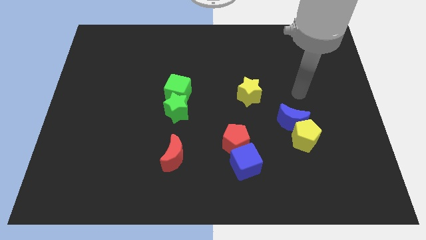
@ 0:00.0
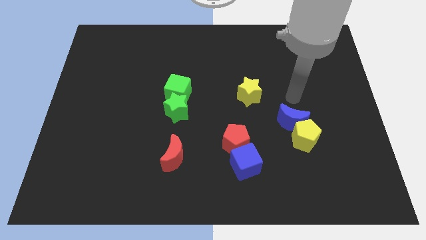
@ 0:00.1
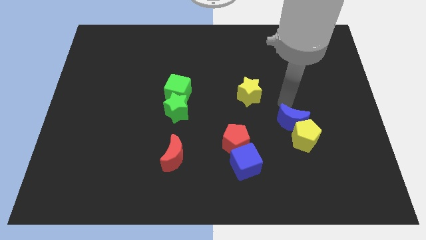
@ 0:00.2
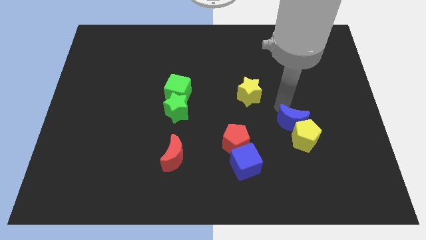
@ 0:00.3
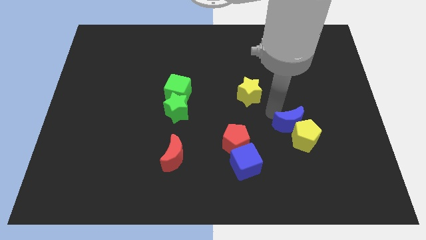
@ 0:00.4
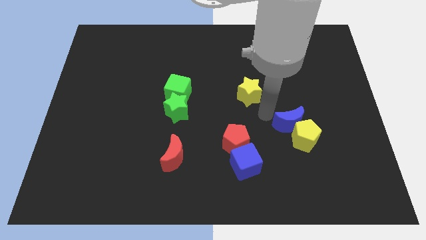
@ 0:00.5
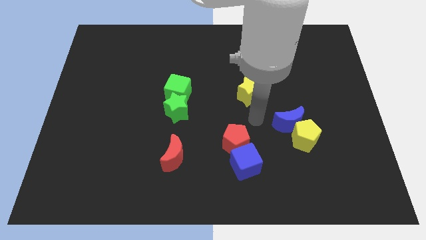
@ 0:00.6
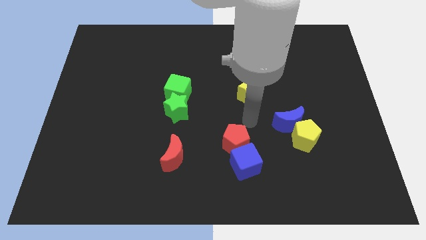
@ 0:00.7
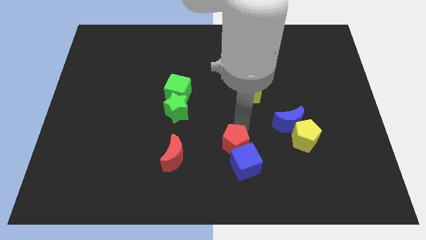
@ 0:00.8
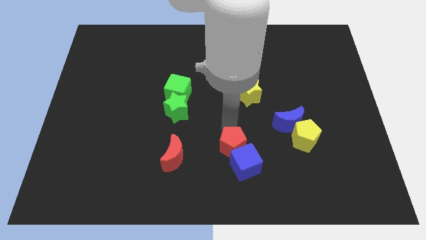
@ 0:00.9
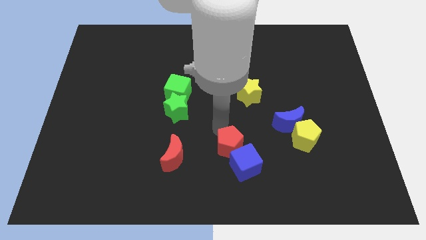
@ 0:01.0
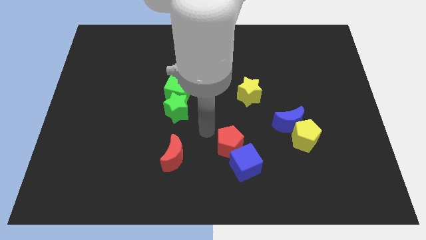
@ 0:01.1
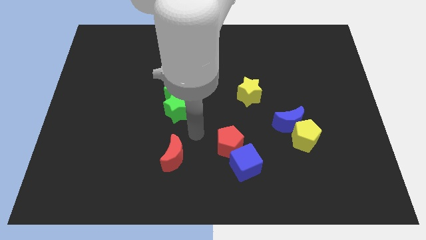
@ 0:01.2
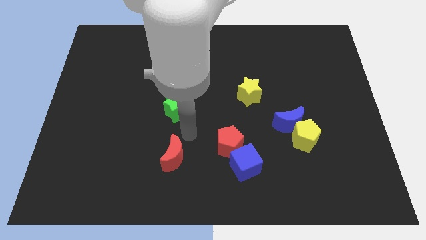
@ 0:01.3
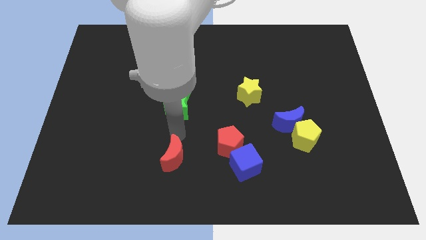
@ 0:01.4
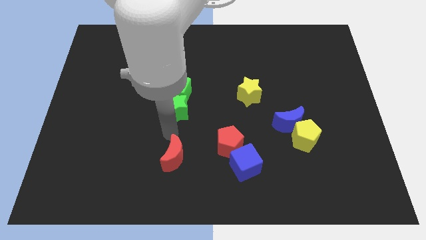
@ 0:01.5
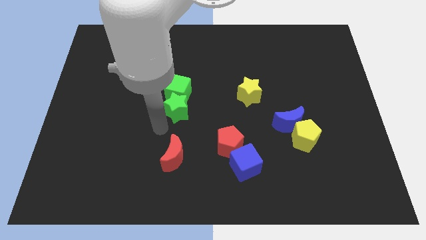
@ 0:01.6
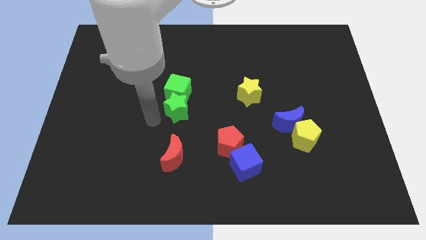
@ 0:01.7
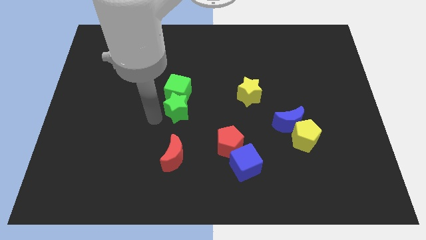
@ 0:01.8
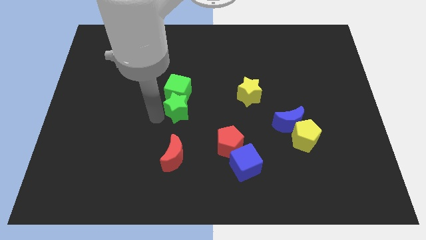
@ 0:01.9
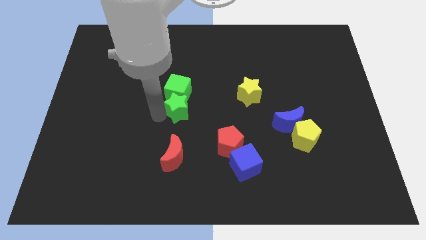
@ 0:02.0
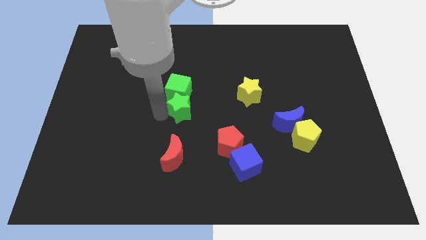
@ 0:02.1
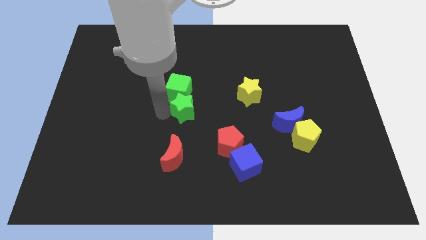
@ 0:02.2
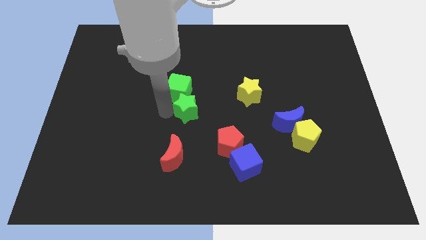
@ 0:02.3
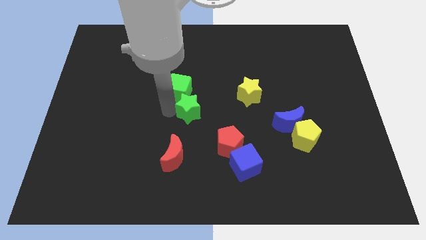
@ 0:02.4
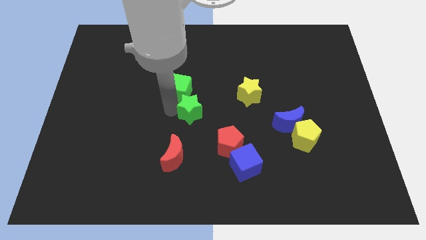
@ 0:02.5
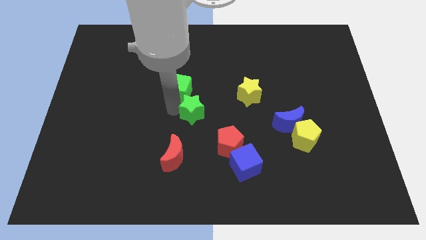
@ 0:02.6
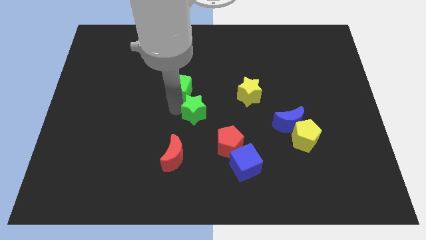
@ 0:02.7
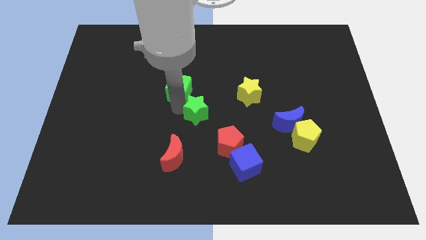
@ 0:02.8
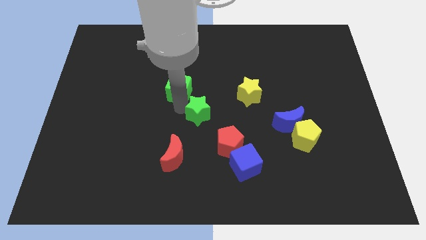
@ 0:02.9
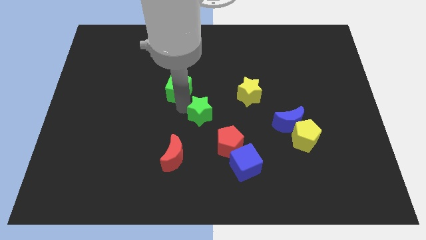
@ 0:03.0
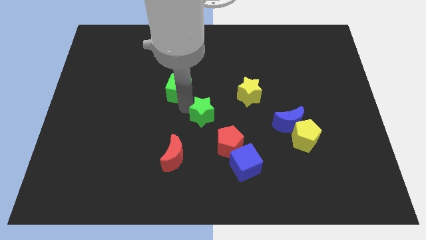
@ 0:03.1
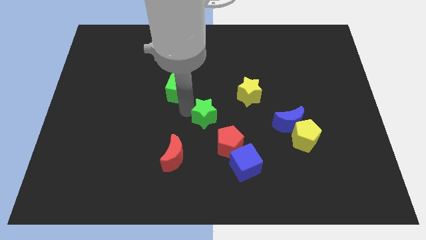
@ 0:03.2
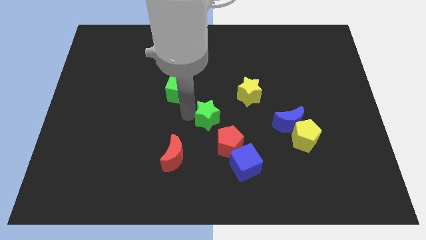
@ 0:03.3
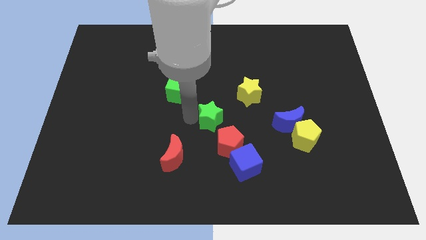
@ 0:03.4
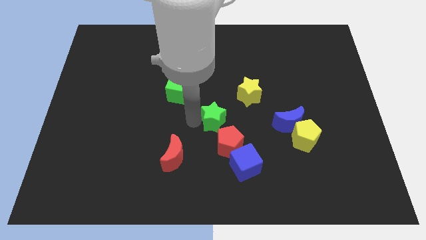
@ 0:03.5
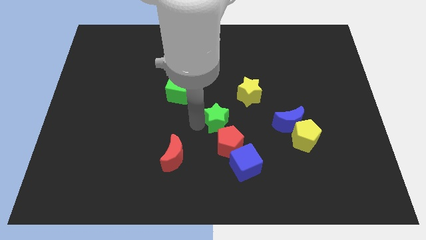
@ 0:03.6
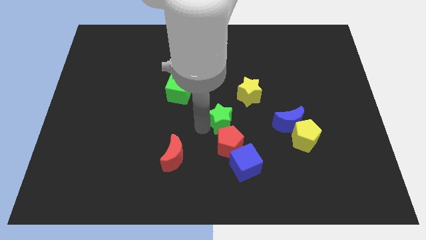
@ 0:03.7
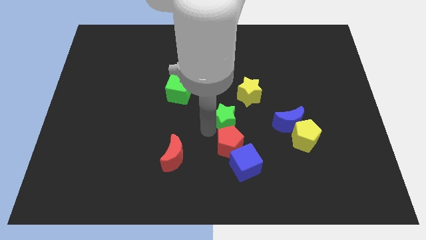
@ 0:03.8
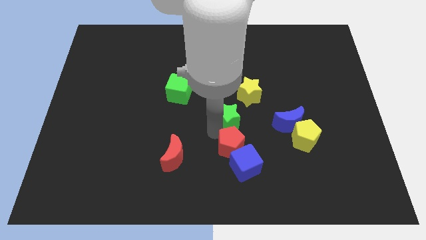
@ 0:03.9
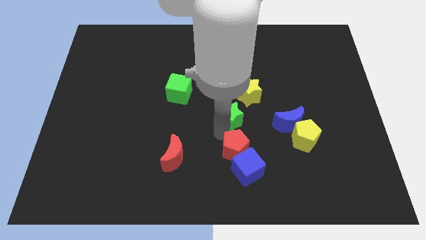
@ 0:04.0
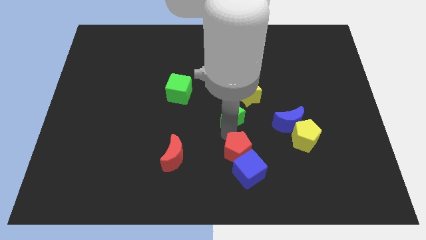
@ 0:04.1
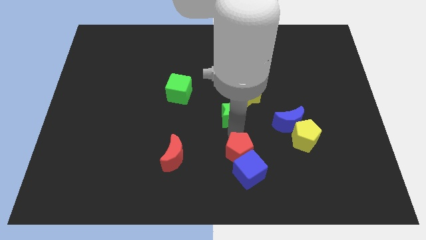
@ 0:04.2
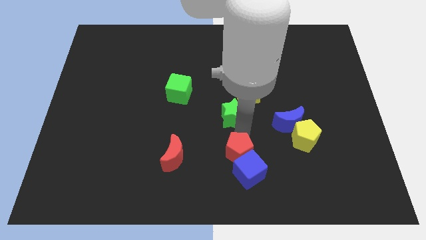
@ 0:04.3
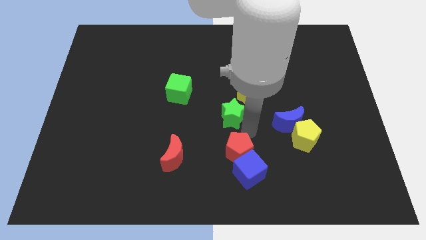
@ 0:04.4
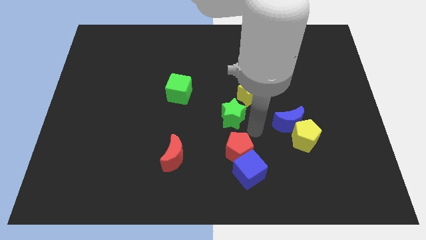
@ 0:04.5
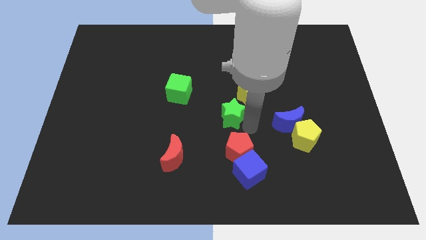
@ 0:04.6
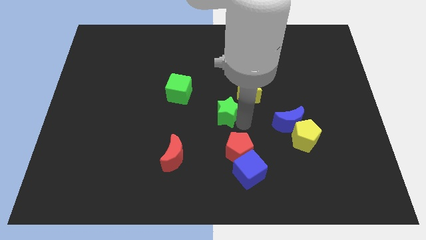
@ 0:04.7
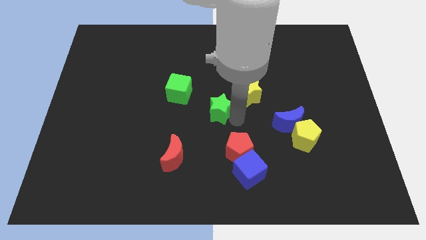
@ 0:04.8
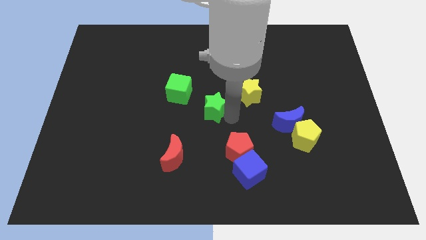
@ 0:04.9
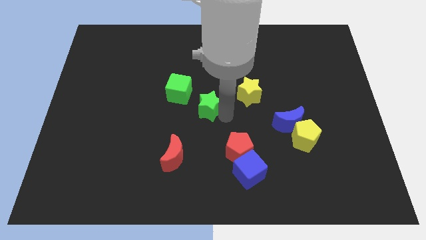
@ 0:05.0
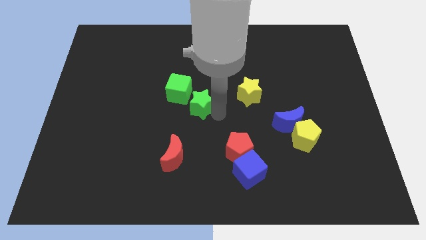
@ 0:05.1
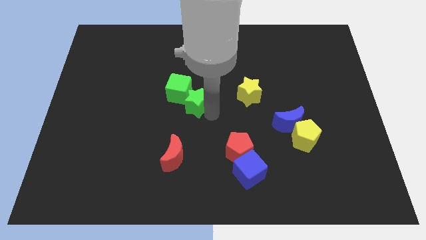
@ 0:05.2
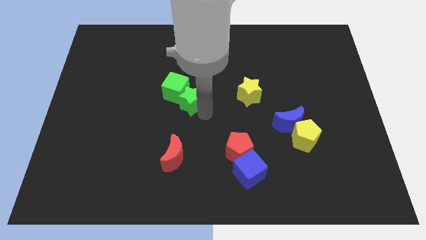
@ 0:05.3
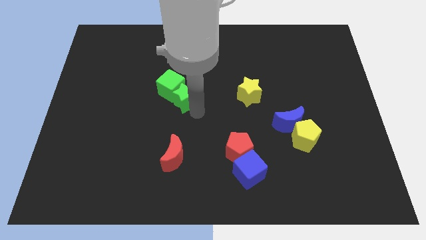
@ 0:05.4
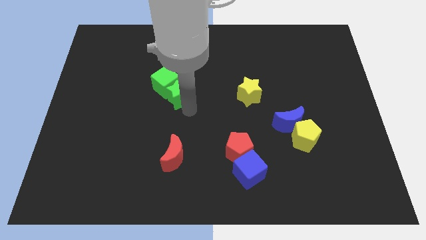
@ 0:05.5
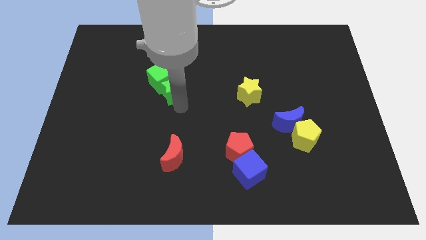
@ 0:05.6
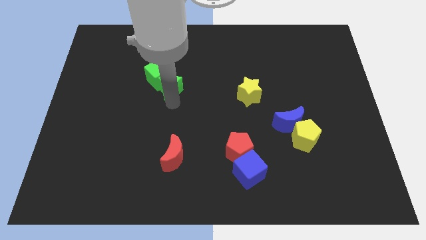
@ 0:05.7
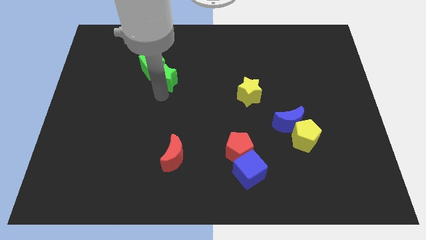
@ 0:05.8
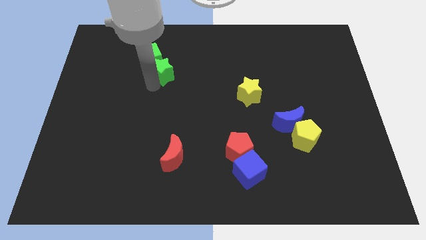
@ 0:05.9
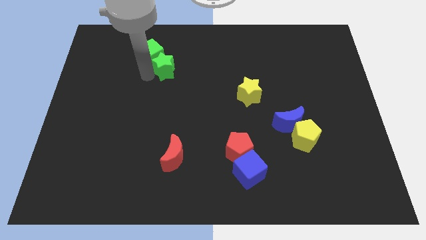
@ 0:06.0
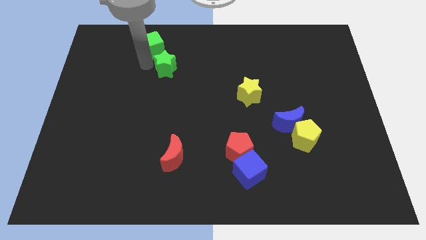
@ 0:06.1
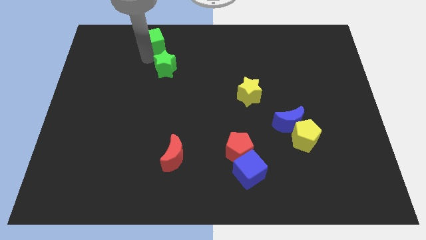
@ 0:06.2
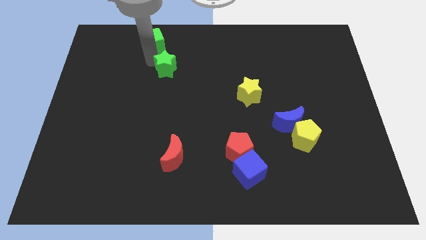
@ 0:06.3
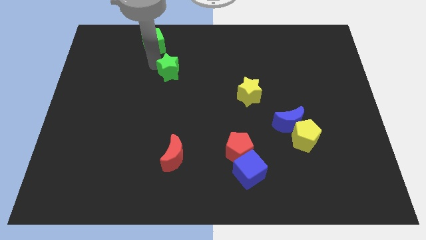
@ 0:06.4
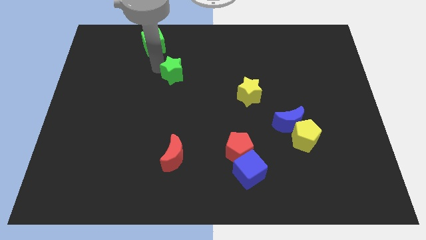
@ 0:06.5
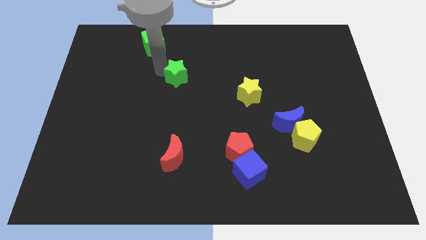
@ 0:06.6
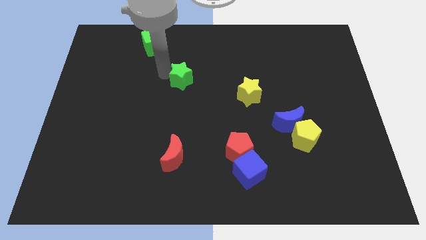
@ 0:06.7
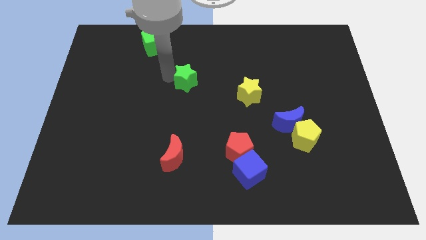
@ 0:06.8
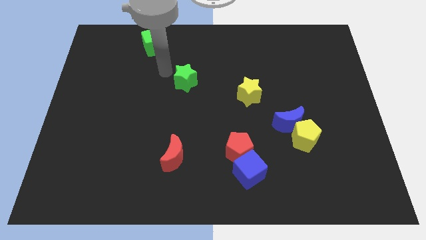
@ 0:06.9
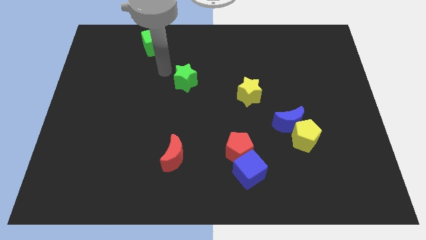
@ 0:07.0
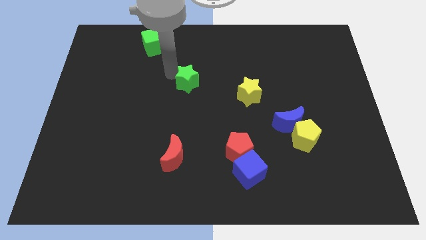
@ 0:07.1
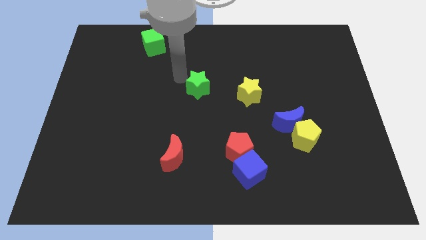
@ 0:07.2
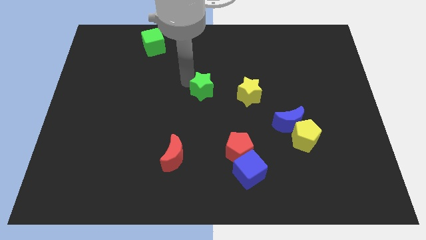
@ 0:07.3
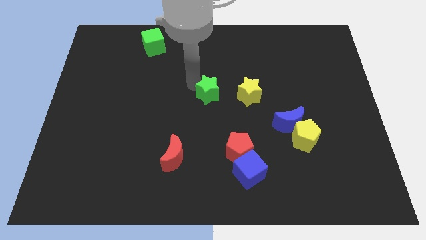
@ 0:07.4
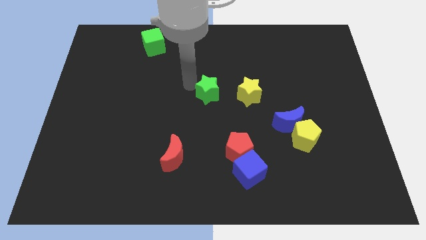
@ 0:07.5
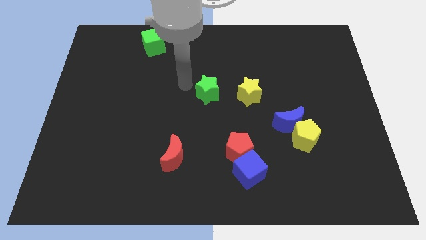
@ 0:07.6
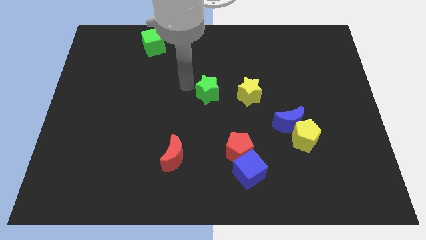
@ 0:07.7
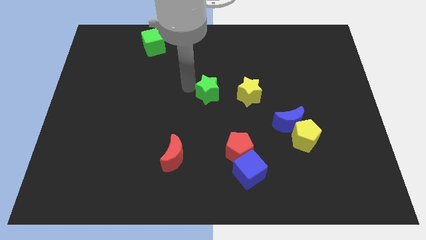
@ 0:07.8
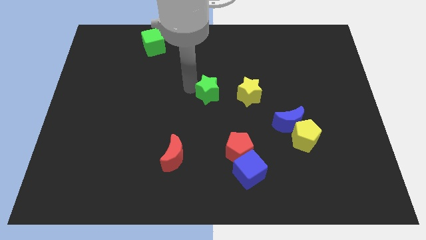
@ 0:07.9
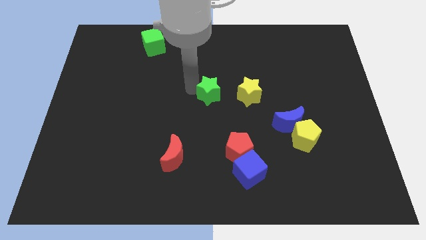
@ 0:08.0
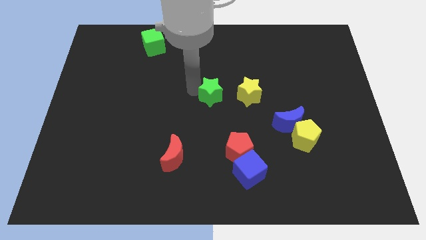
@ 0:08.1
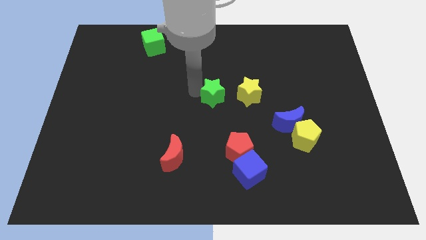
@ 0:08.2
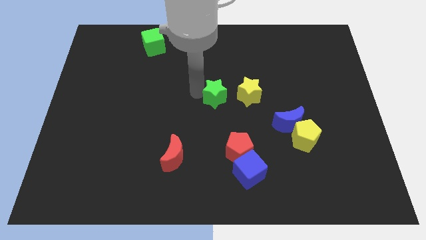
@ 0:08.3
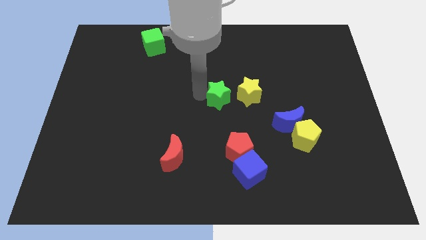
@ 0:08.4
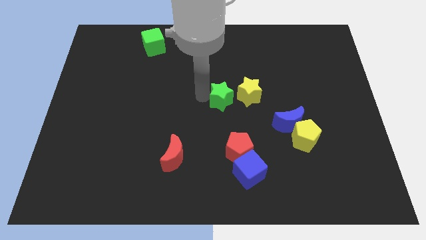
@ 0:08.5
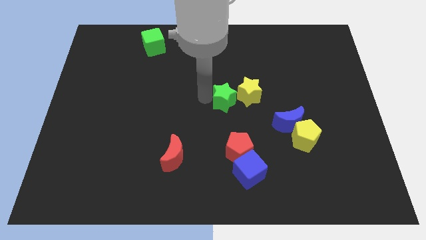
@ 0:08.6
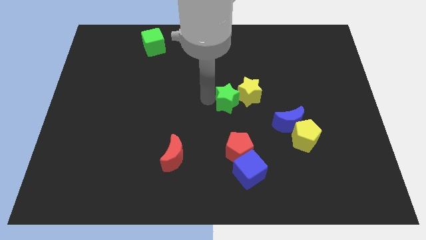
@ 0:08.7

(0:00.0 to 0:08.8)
put the green star towards the yellow star
